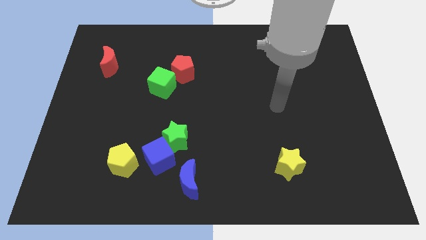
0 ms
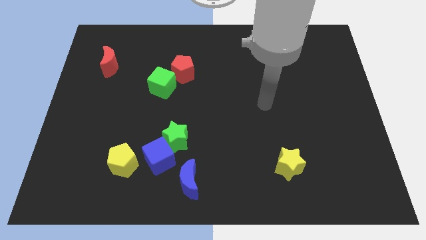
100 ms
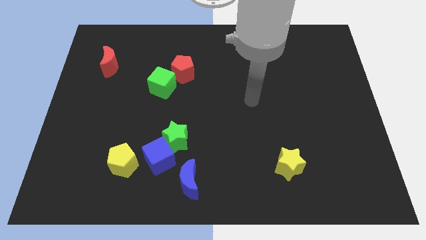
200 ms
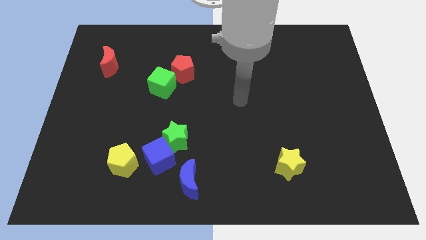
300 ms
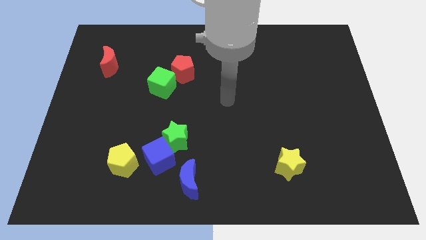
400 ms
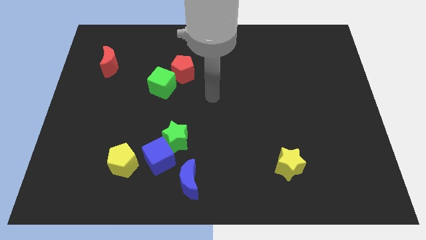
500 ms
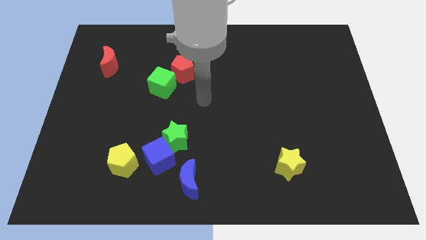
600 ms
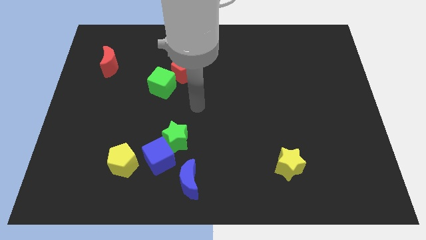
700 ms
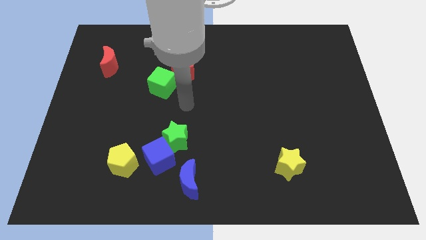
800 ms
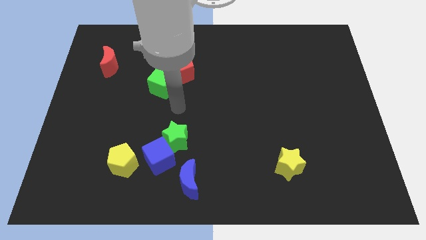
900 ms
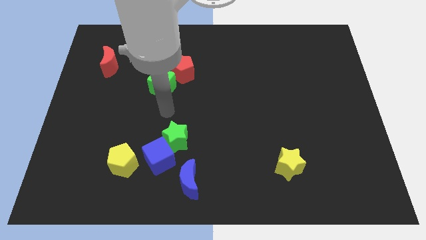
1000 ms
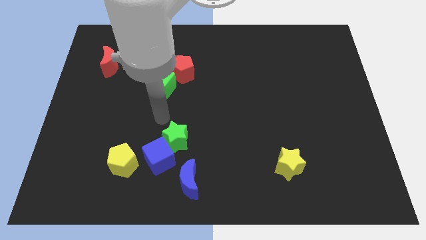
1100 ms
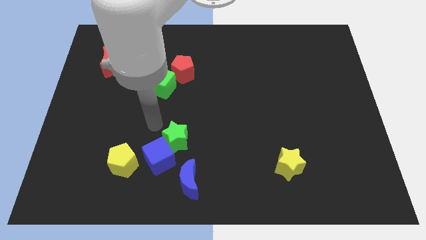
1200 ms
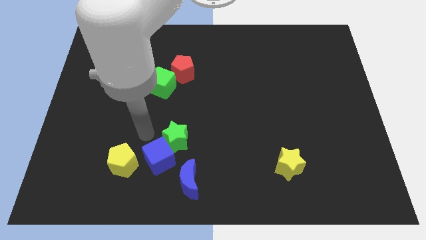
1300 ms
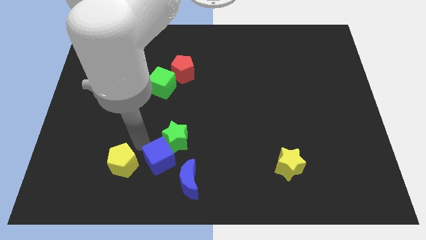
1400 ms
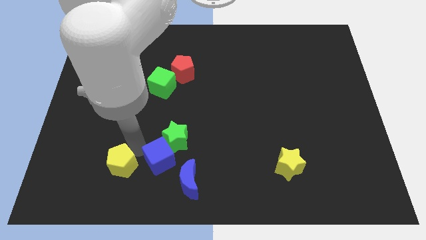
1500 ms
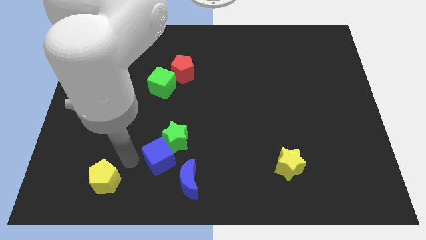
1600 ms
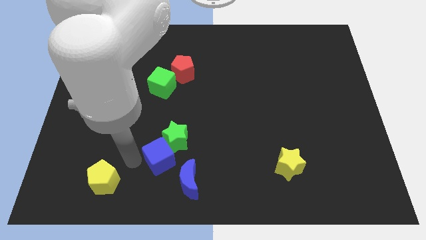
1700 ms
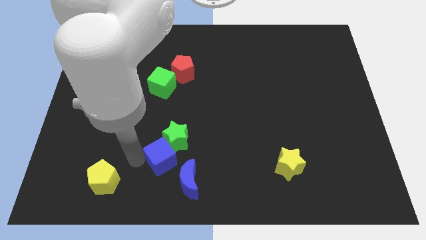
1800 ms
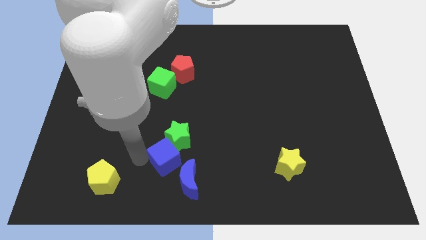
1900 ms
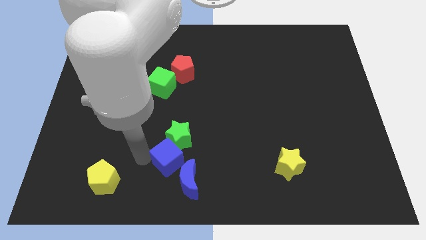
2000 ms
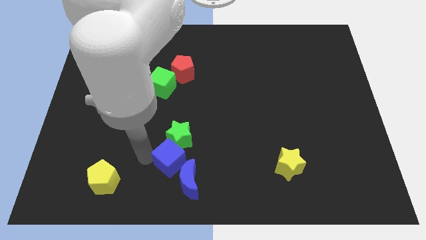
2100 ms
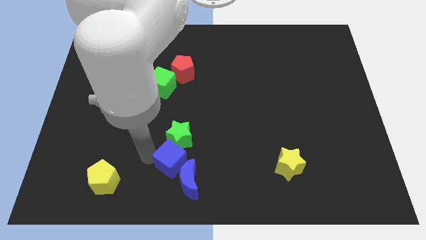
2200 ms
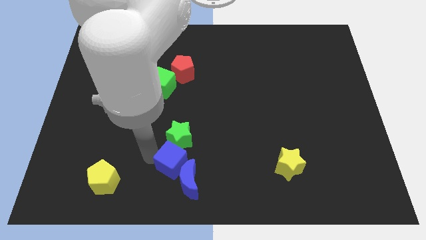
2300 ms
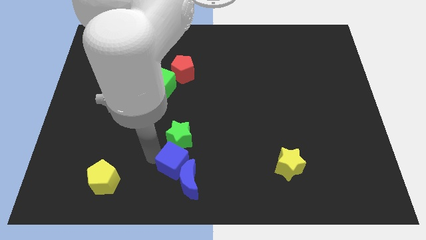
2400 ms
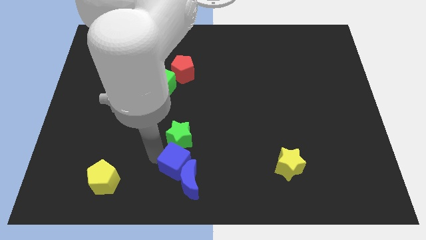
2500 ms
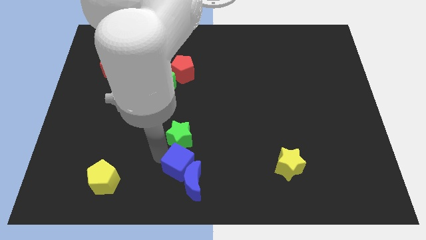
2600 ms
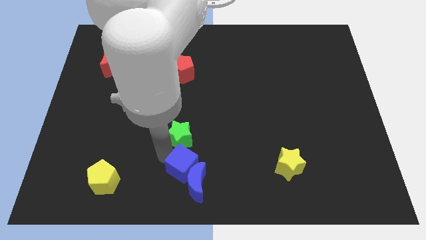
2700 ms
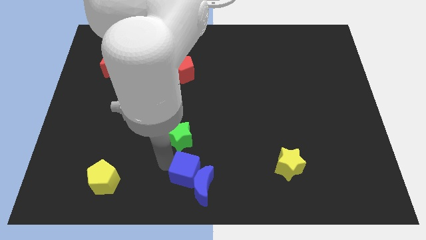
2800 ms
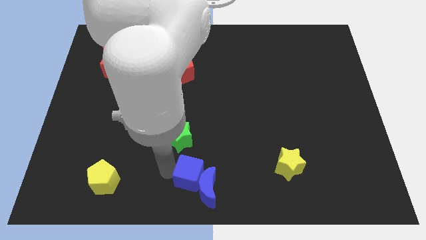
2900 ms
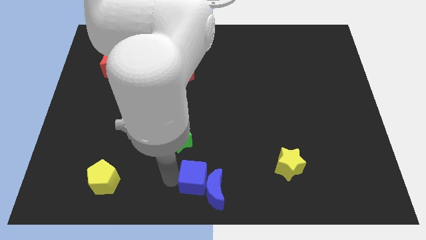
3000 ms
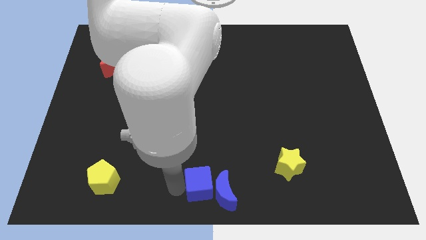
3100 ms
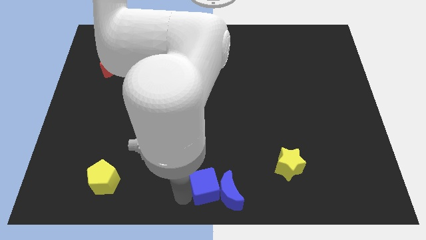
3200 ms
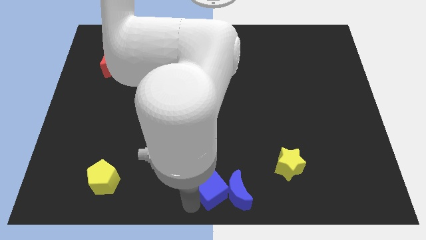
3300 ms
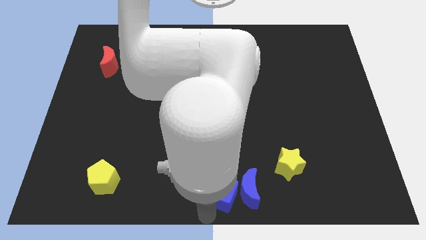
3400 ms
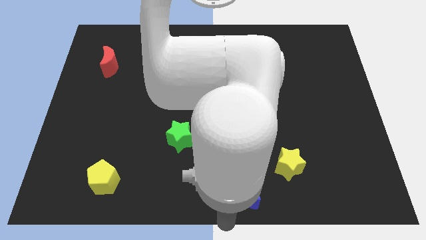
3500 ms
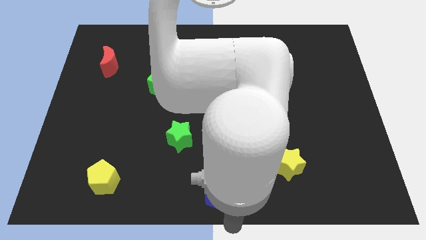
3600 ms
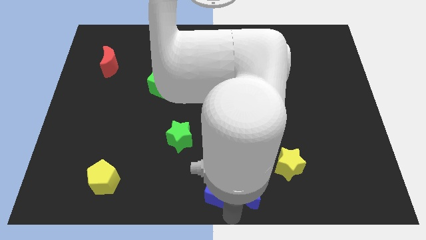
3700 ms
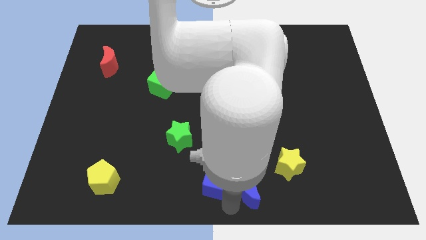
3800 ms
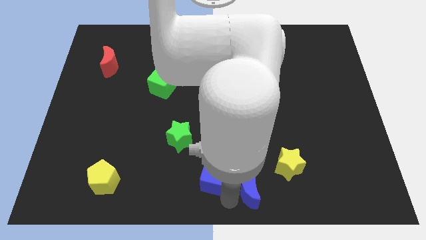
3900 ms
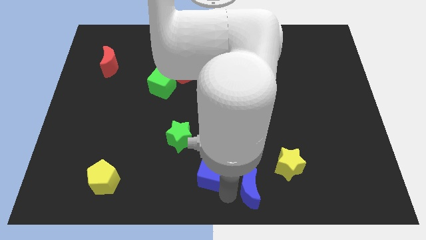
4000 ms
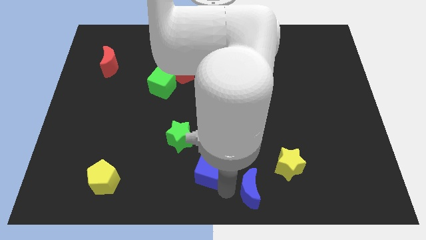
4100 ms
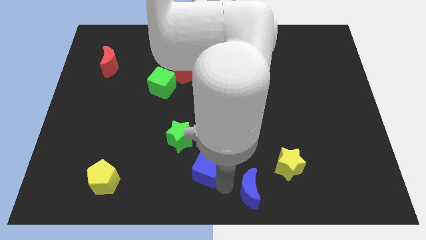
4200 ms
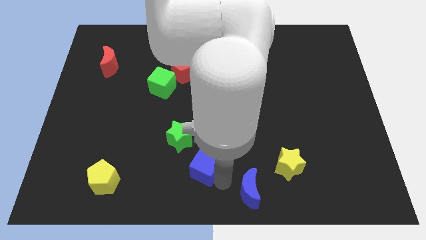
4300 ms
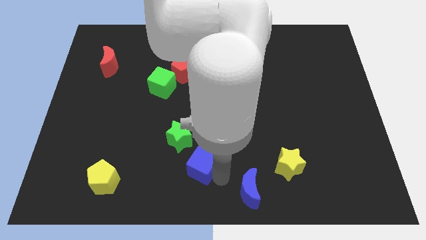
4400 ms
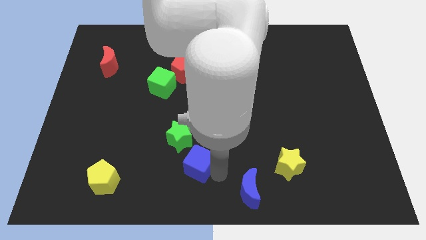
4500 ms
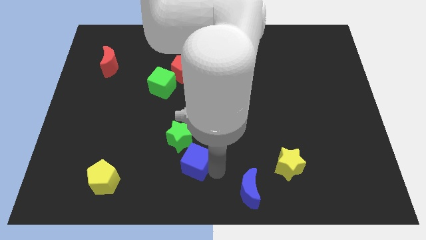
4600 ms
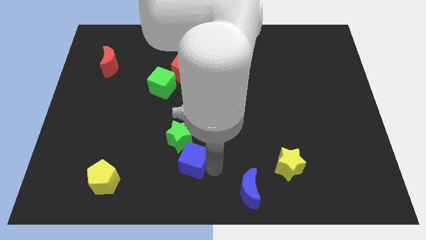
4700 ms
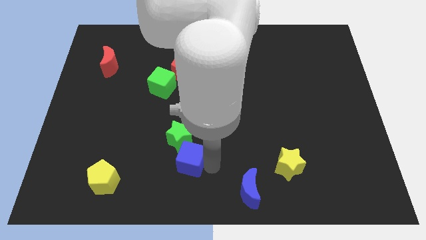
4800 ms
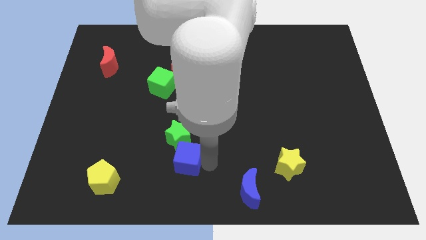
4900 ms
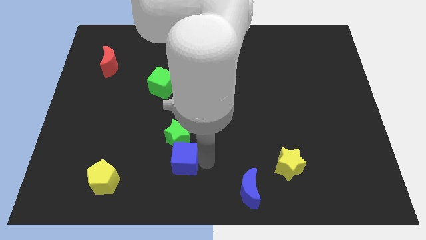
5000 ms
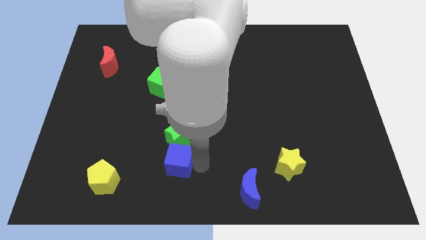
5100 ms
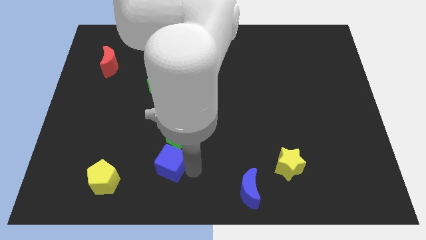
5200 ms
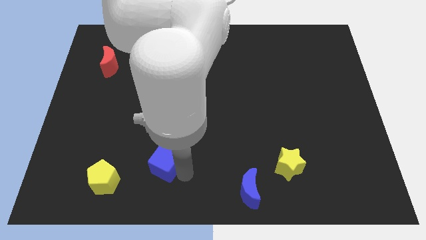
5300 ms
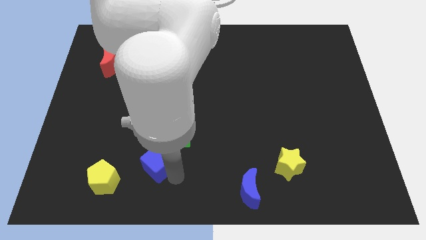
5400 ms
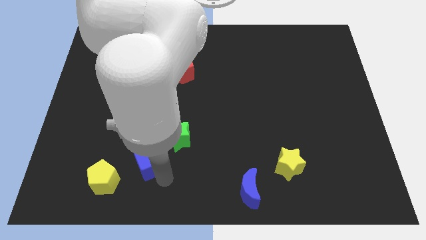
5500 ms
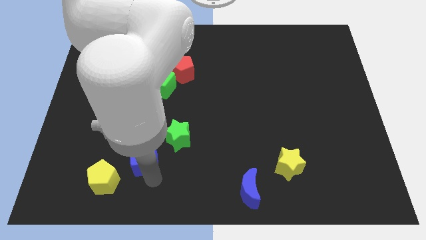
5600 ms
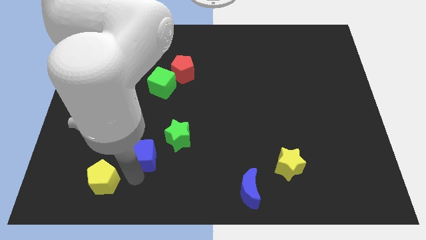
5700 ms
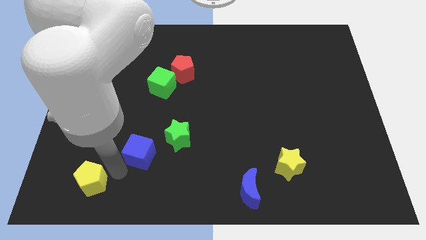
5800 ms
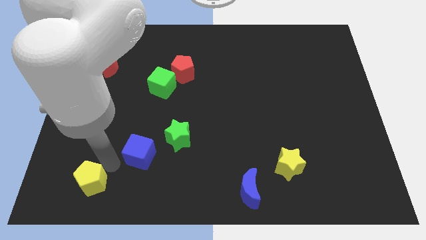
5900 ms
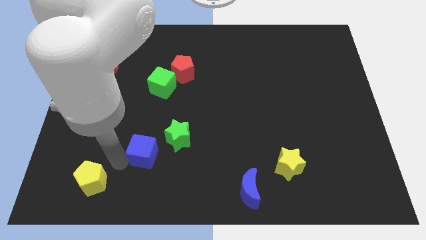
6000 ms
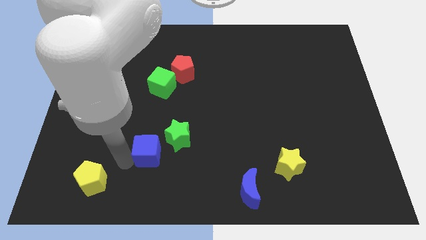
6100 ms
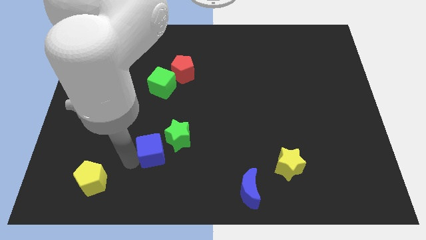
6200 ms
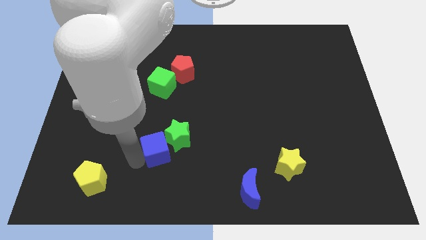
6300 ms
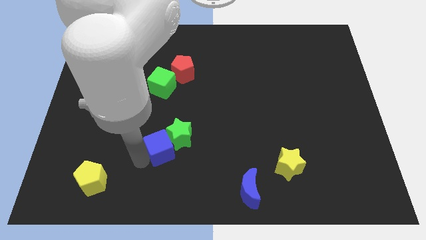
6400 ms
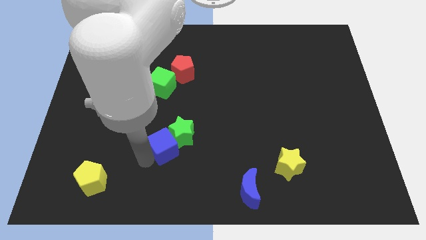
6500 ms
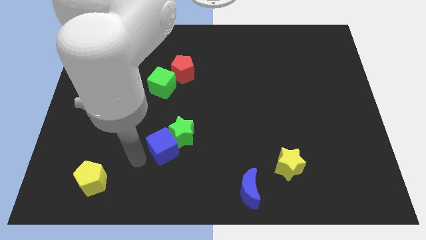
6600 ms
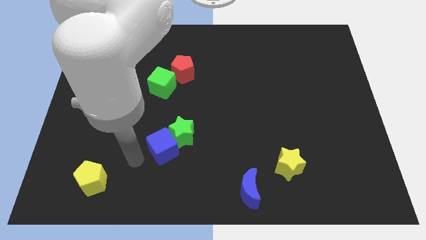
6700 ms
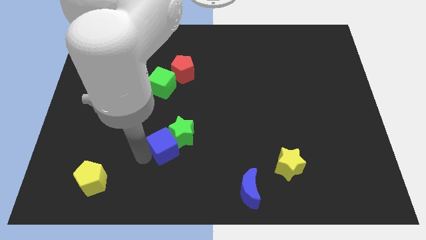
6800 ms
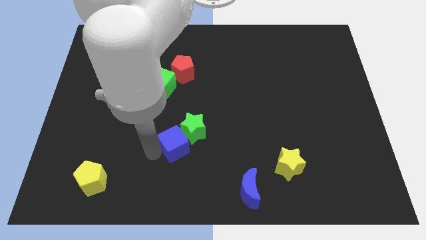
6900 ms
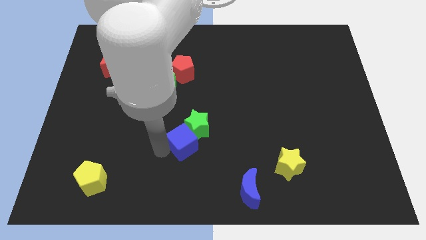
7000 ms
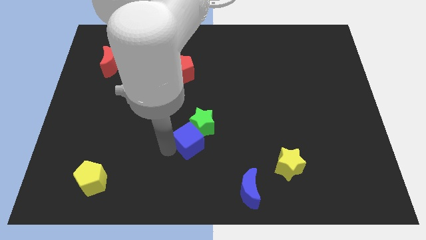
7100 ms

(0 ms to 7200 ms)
move the blue cube slightly upwards and then right
